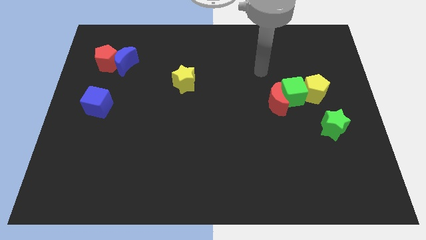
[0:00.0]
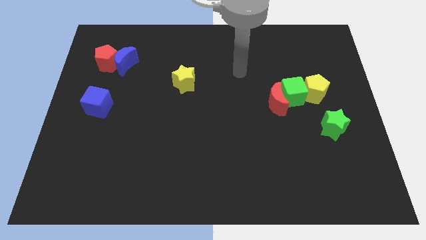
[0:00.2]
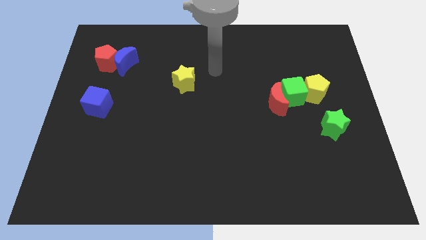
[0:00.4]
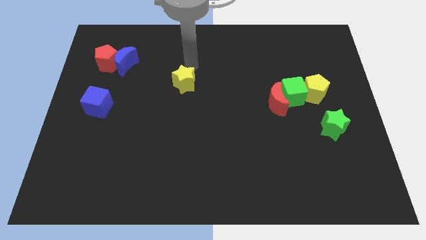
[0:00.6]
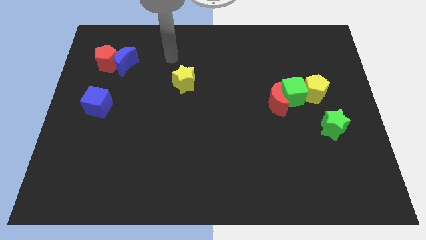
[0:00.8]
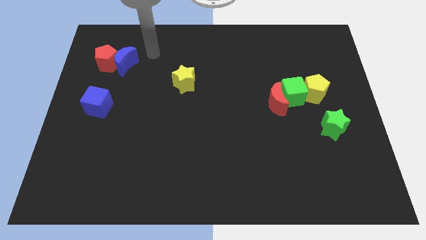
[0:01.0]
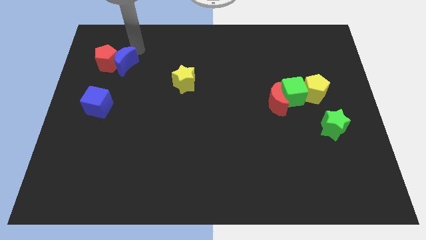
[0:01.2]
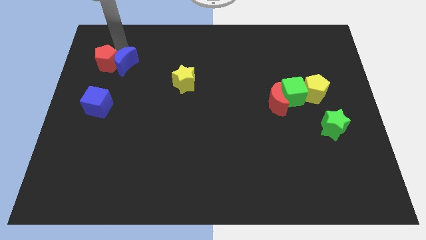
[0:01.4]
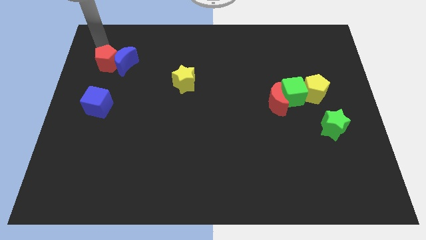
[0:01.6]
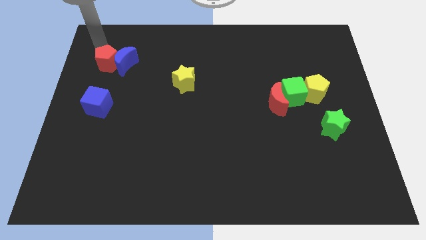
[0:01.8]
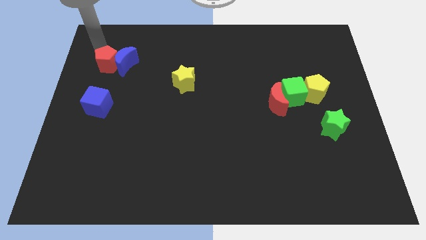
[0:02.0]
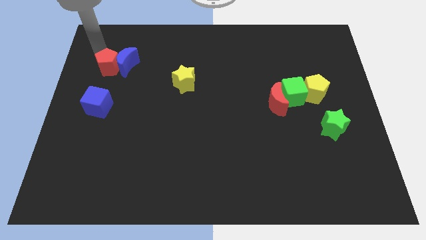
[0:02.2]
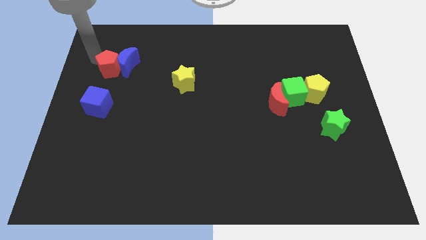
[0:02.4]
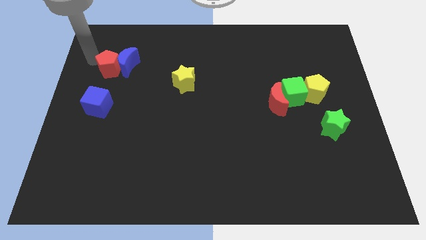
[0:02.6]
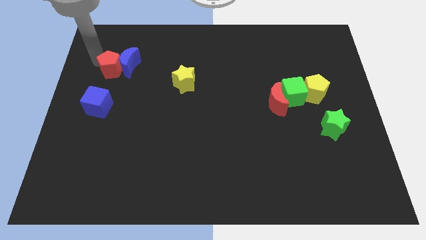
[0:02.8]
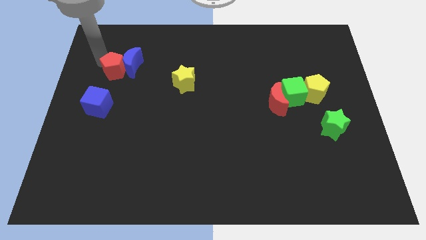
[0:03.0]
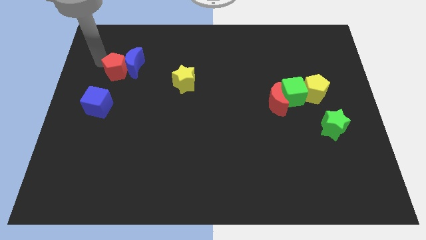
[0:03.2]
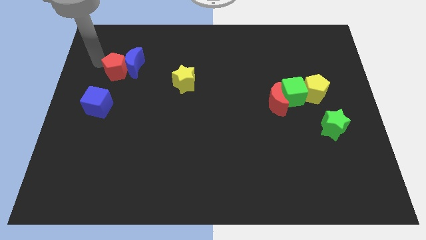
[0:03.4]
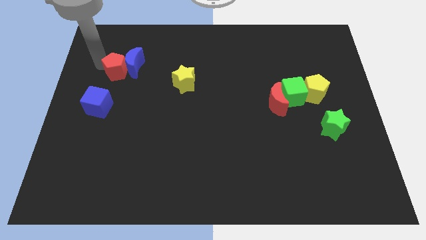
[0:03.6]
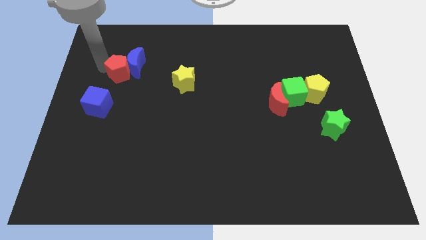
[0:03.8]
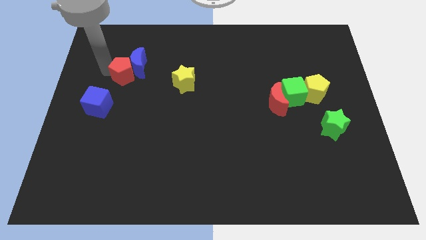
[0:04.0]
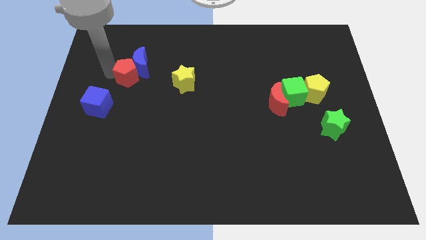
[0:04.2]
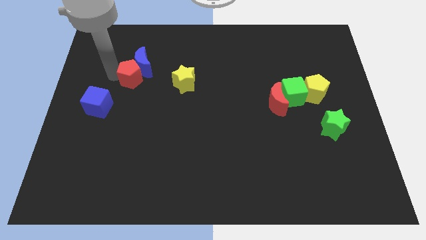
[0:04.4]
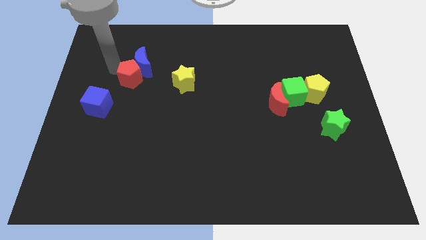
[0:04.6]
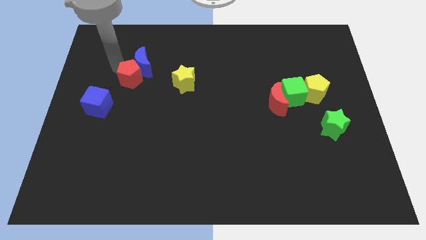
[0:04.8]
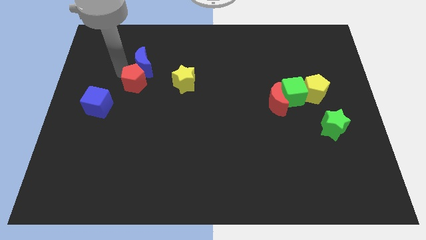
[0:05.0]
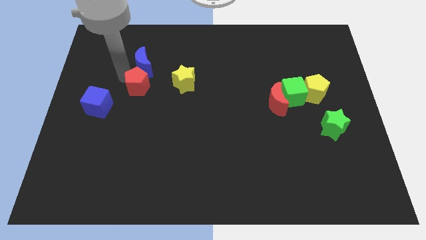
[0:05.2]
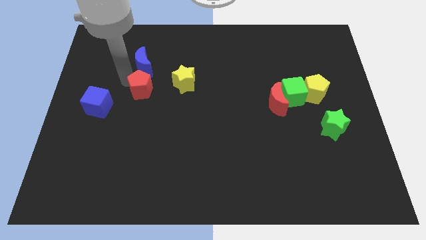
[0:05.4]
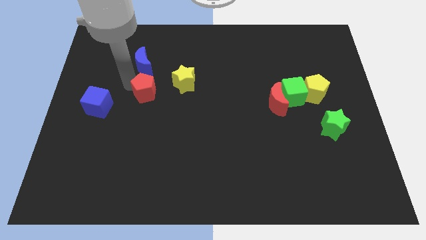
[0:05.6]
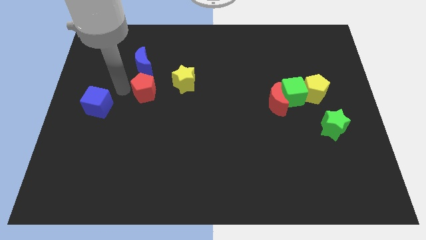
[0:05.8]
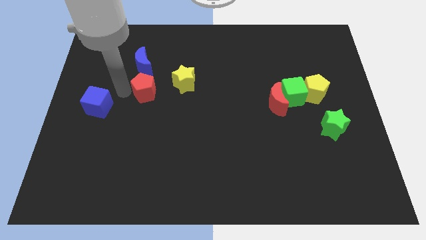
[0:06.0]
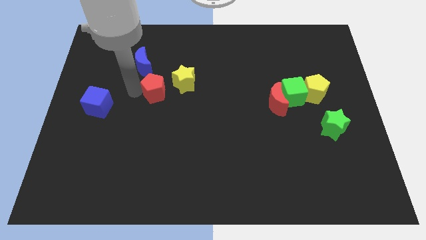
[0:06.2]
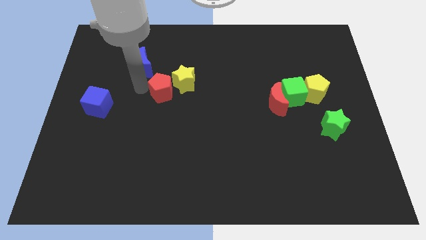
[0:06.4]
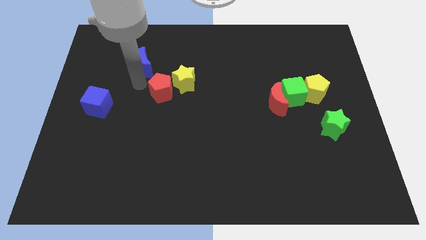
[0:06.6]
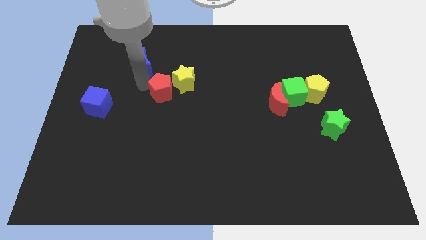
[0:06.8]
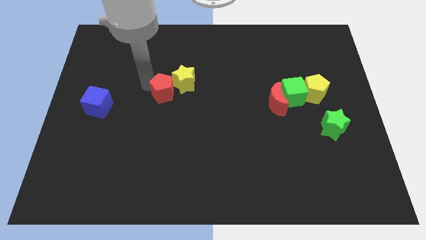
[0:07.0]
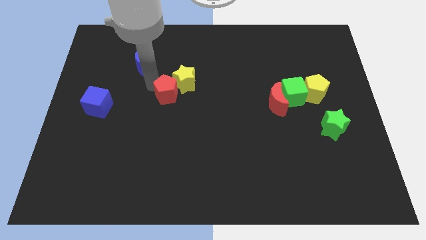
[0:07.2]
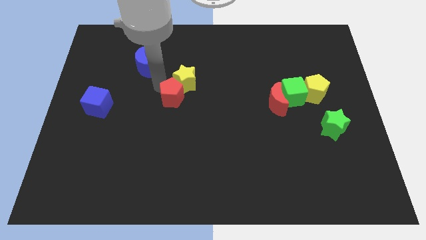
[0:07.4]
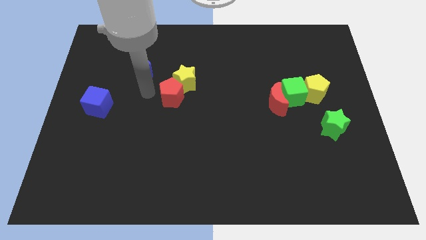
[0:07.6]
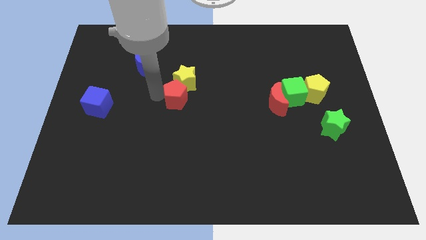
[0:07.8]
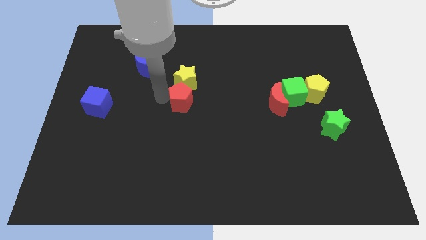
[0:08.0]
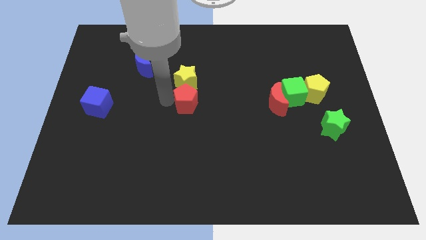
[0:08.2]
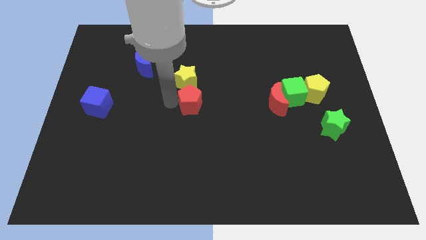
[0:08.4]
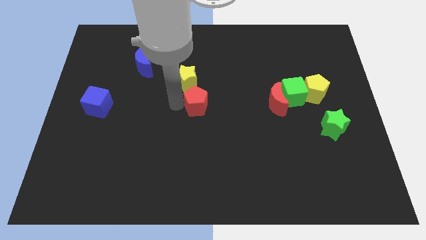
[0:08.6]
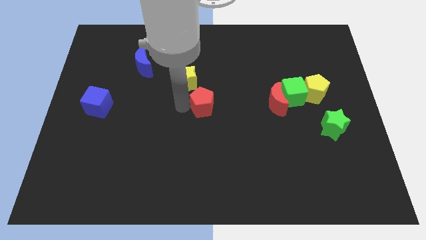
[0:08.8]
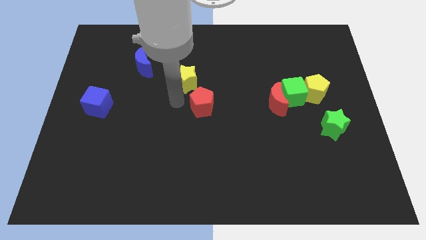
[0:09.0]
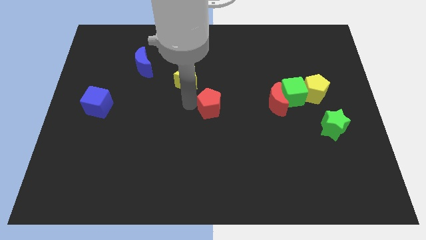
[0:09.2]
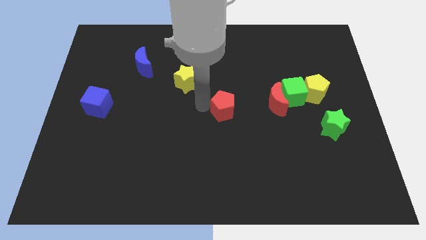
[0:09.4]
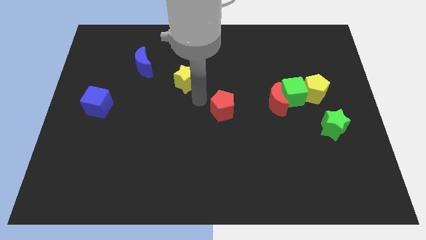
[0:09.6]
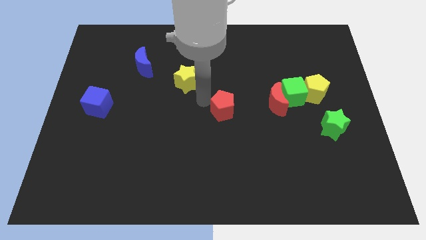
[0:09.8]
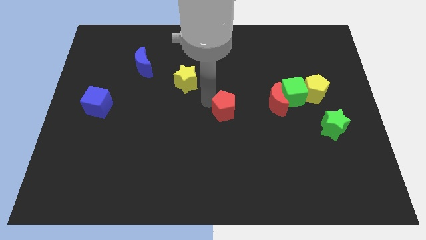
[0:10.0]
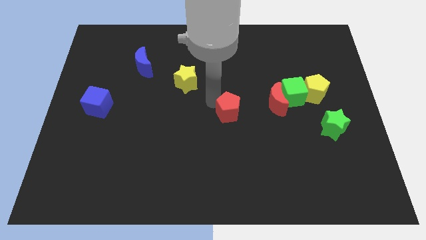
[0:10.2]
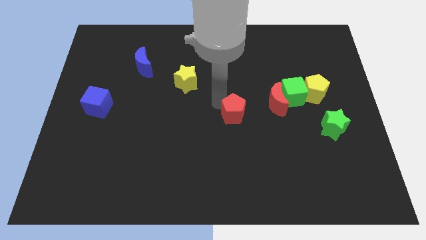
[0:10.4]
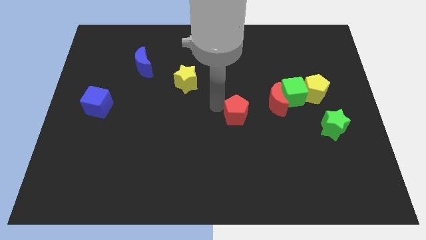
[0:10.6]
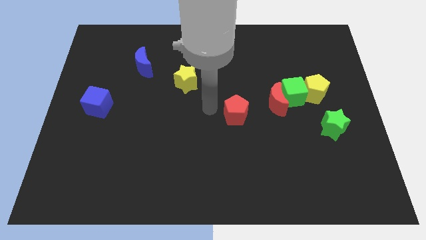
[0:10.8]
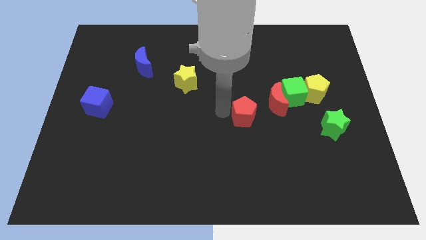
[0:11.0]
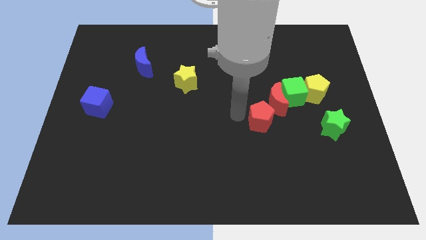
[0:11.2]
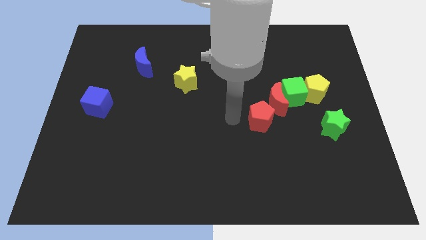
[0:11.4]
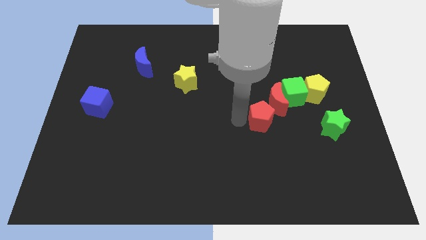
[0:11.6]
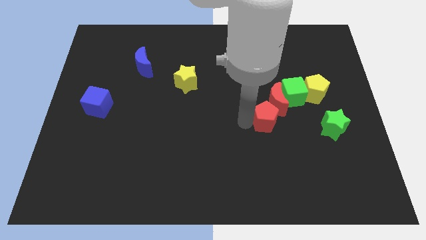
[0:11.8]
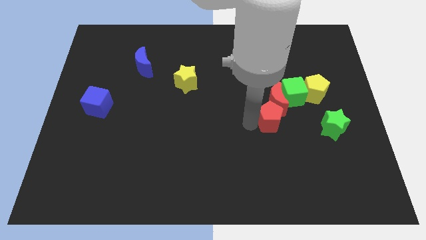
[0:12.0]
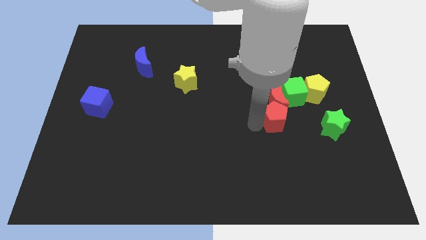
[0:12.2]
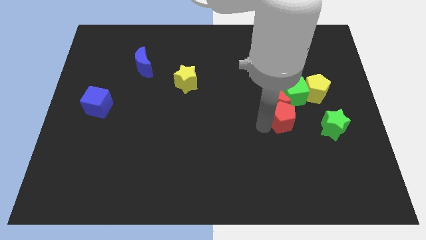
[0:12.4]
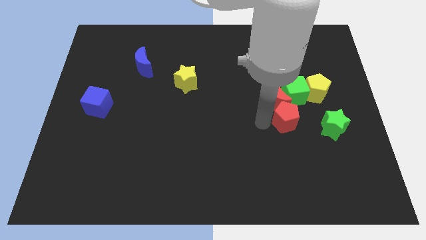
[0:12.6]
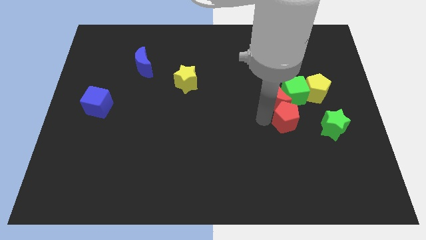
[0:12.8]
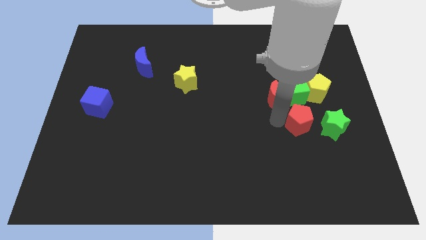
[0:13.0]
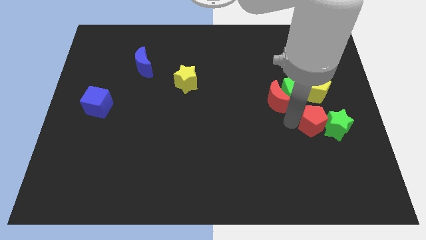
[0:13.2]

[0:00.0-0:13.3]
move the red pentagon to the green star

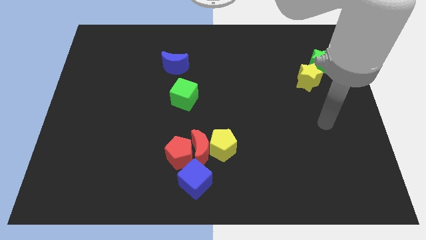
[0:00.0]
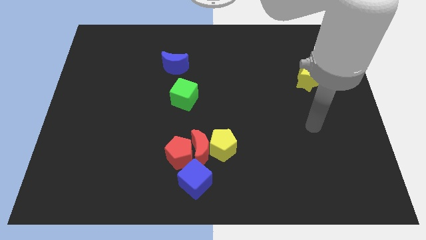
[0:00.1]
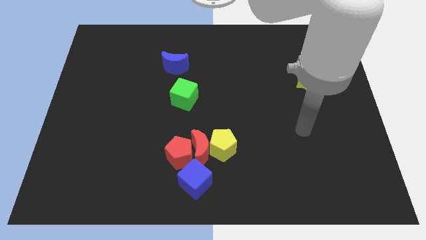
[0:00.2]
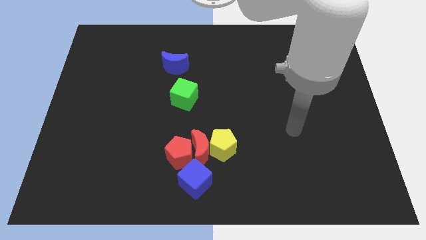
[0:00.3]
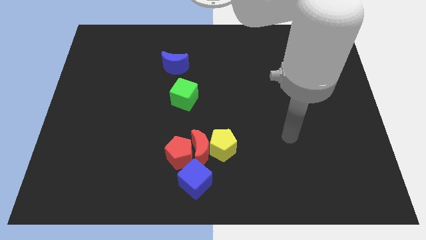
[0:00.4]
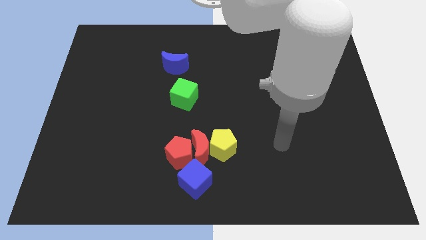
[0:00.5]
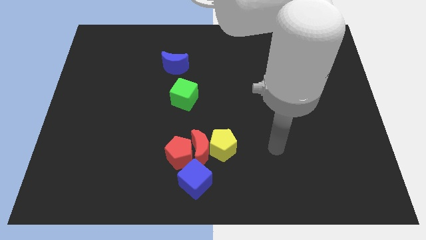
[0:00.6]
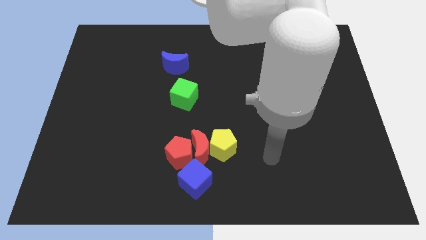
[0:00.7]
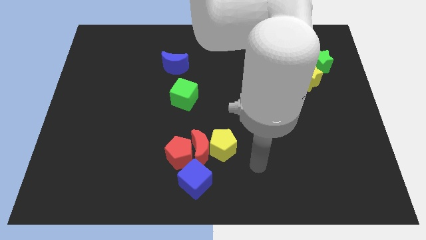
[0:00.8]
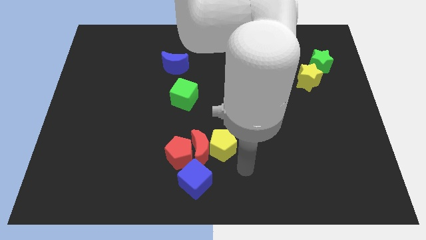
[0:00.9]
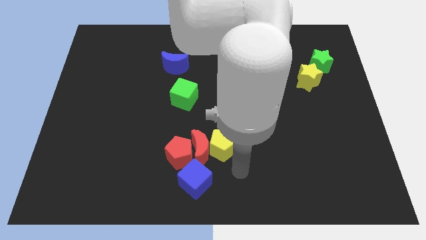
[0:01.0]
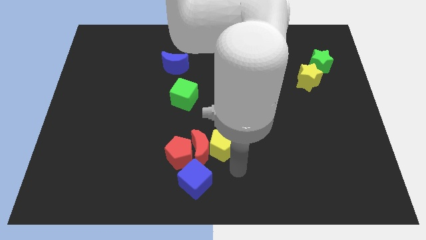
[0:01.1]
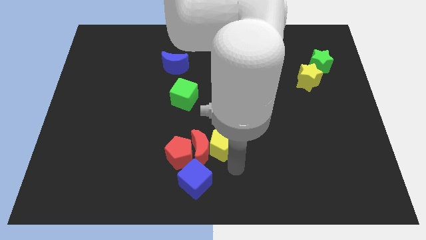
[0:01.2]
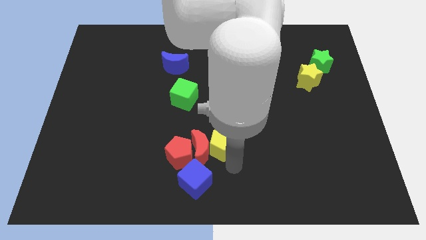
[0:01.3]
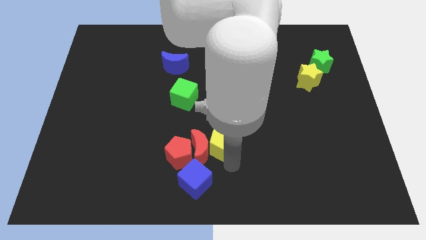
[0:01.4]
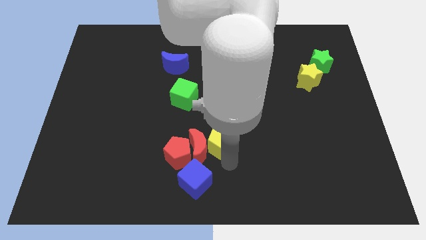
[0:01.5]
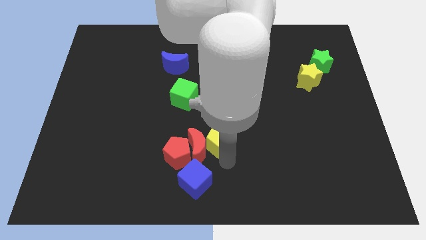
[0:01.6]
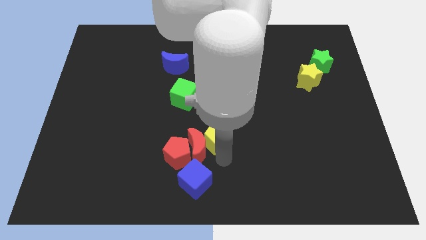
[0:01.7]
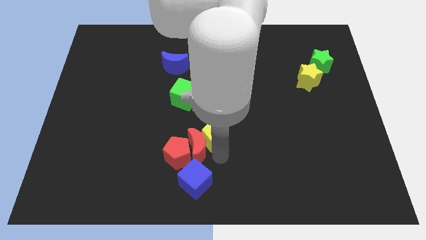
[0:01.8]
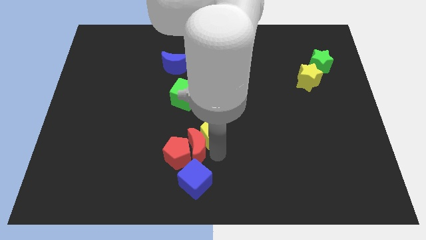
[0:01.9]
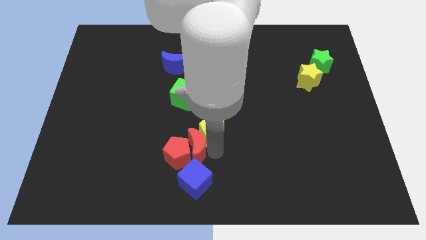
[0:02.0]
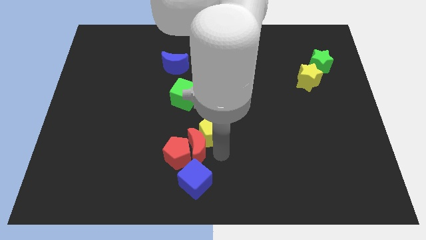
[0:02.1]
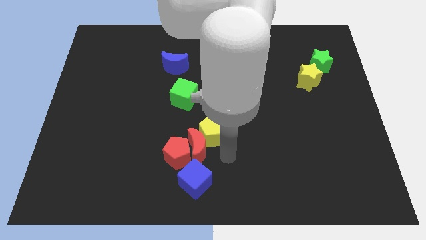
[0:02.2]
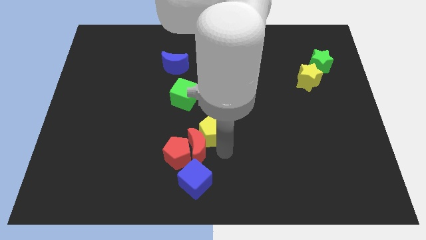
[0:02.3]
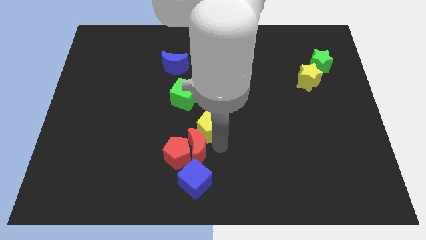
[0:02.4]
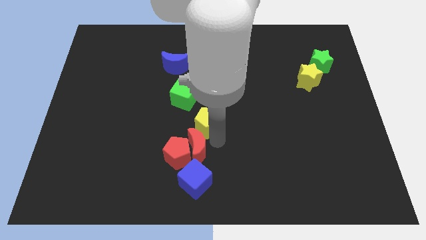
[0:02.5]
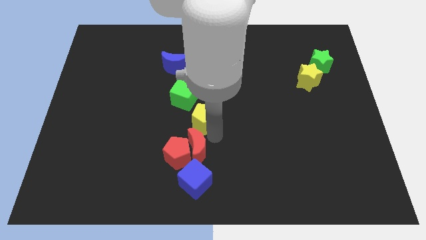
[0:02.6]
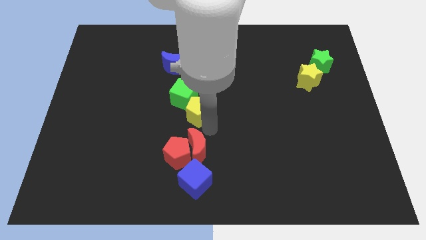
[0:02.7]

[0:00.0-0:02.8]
push the yellow pentagon towards the green cube
